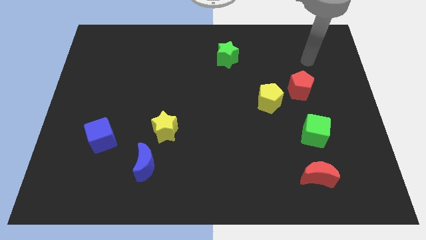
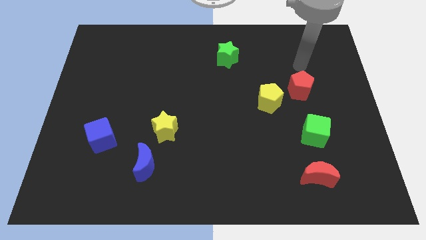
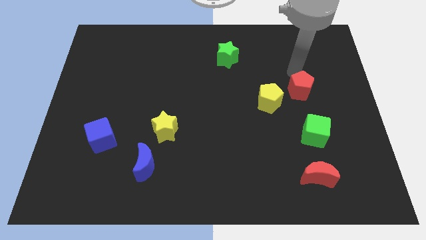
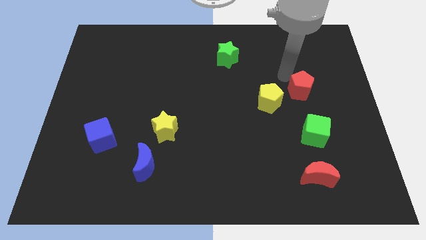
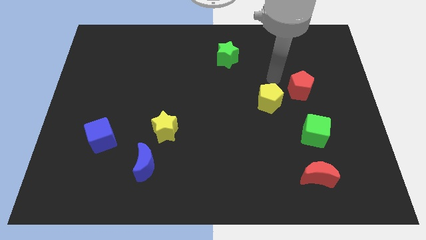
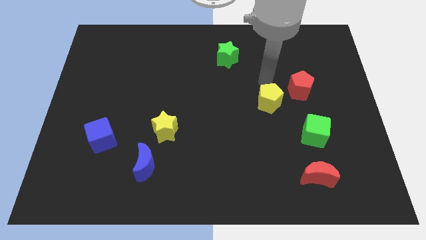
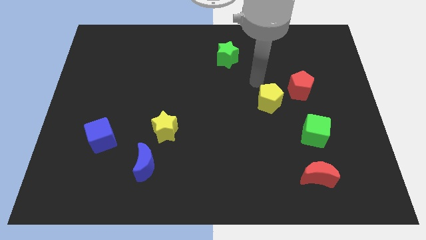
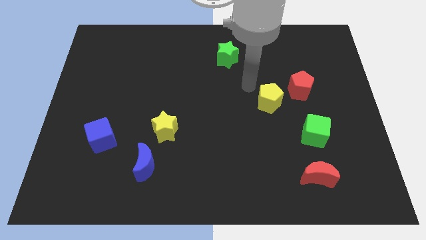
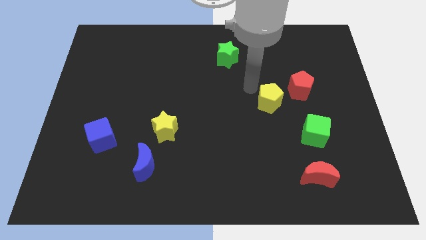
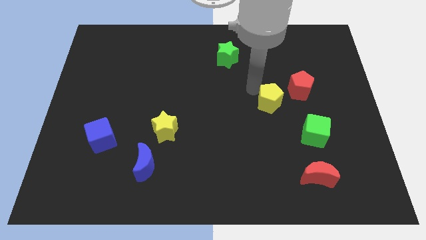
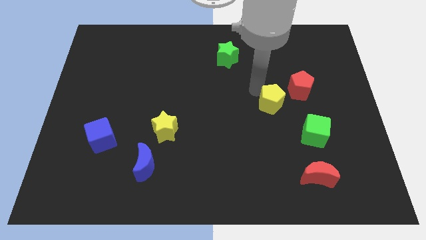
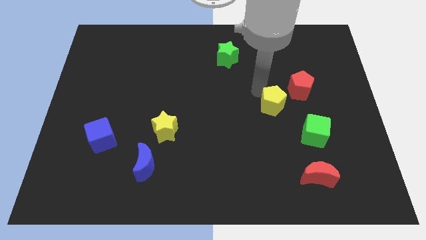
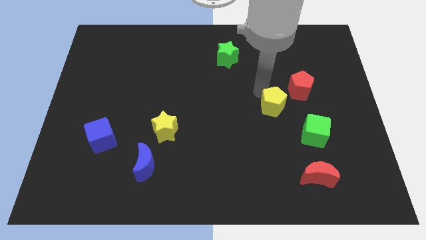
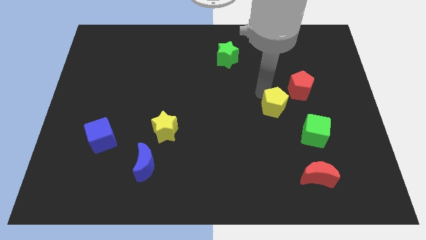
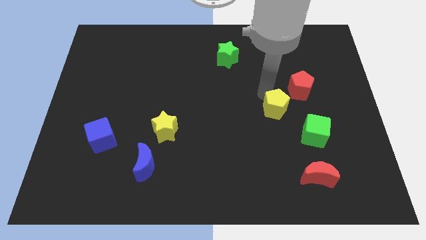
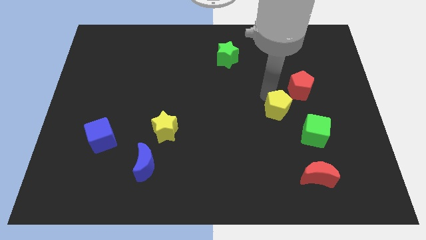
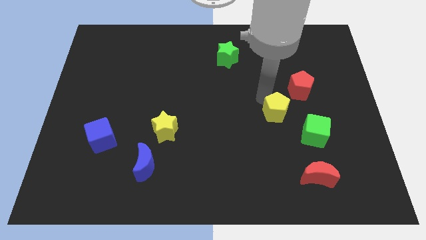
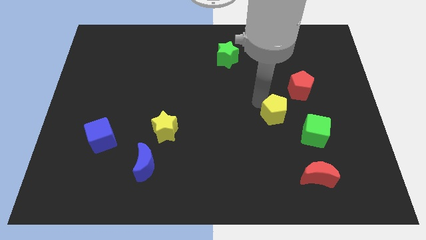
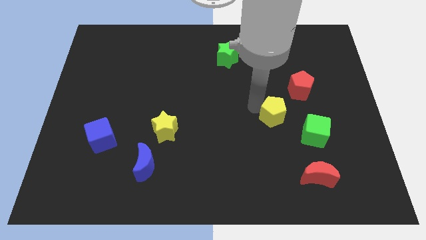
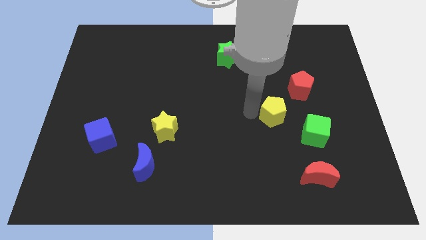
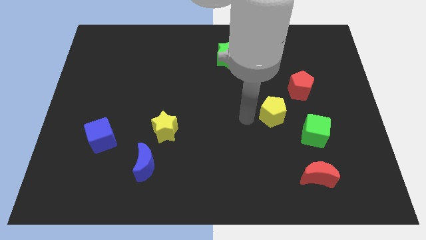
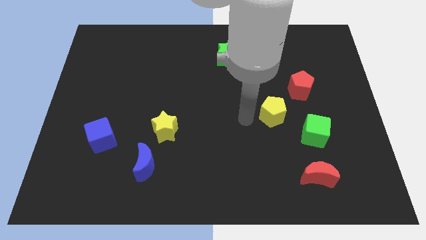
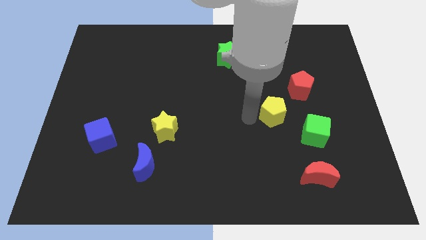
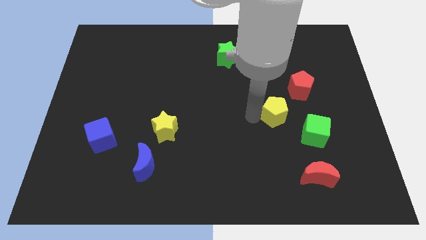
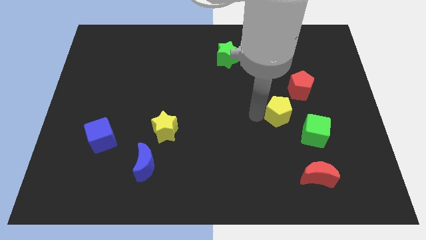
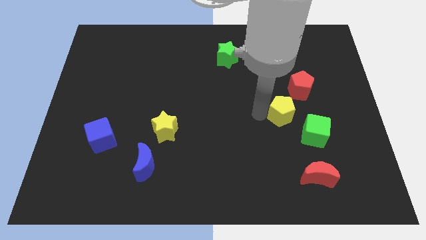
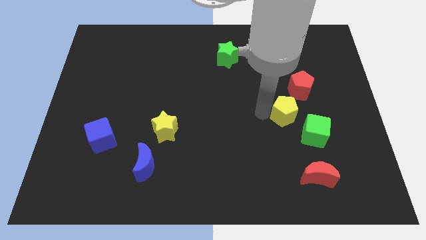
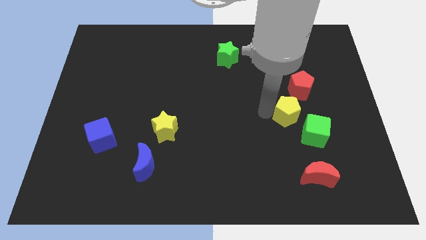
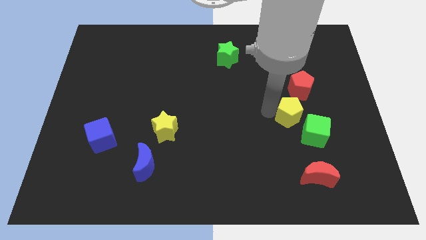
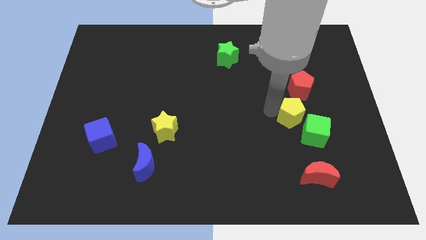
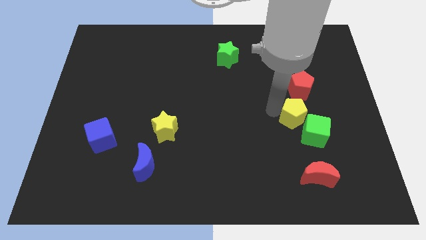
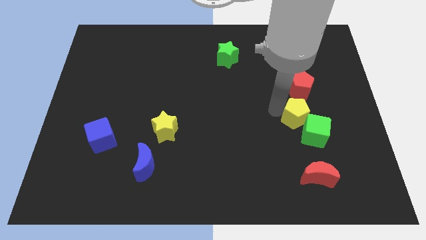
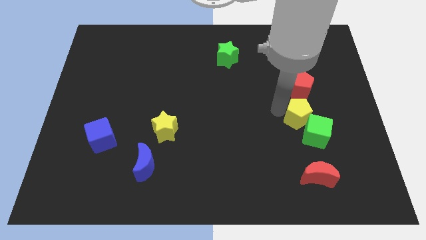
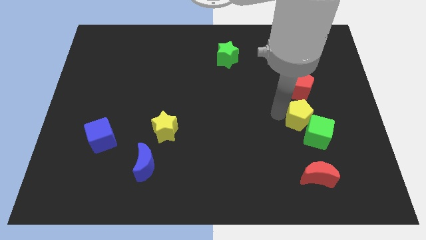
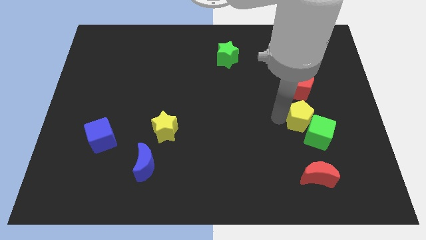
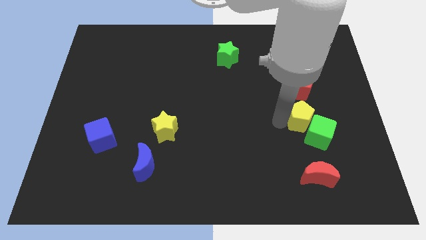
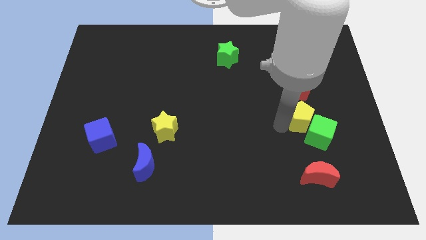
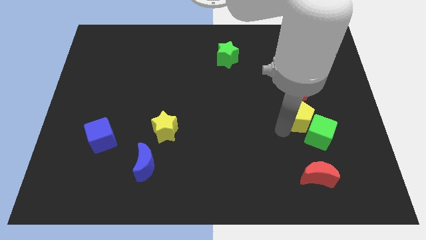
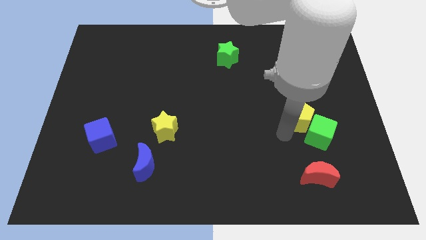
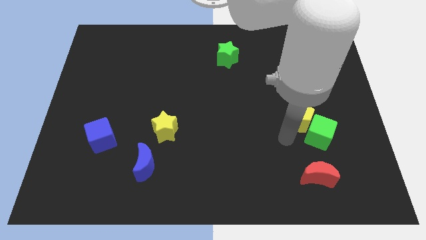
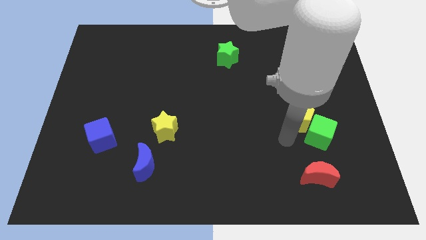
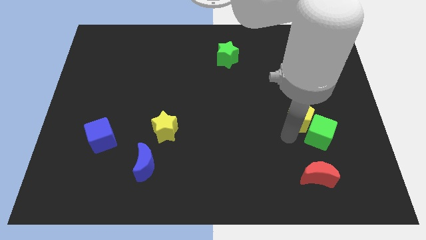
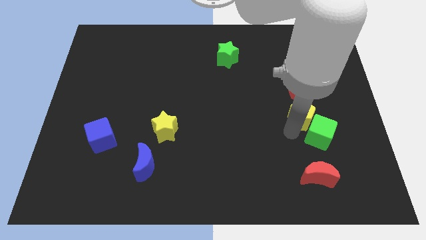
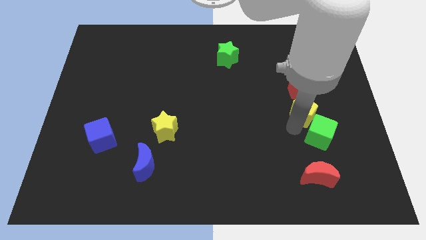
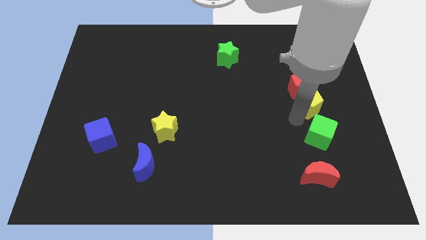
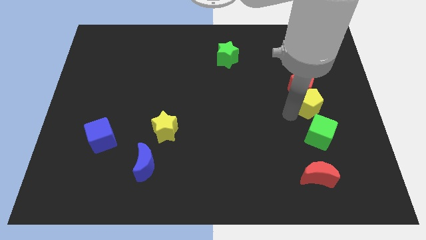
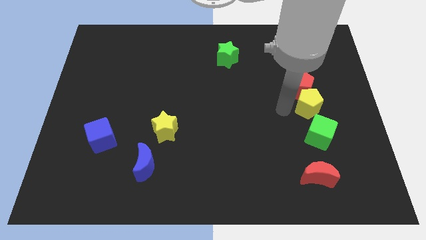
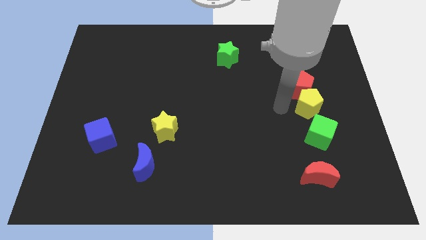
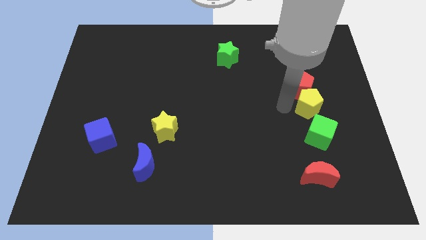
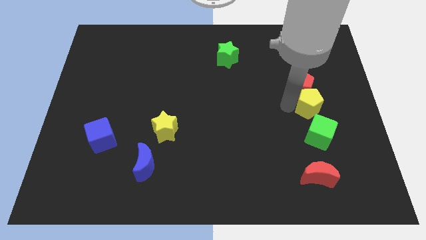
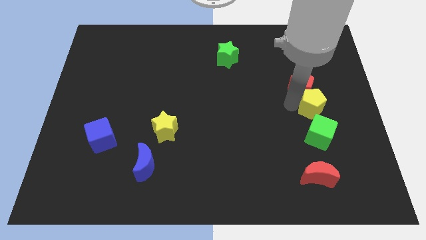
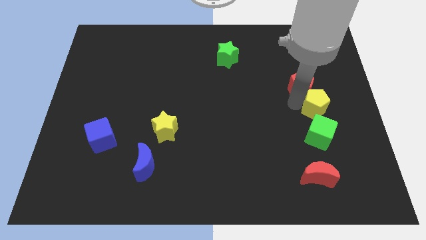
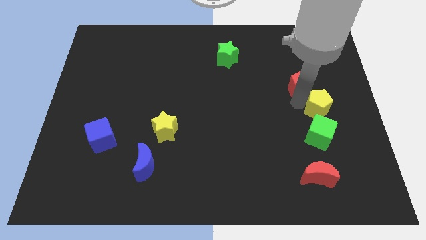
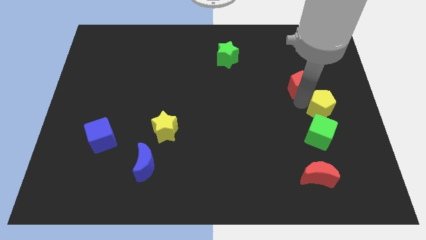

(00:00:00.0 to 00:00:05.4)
slide the yellow pentagon to the center right

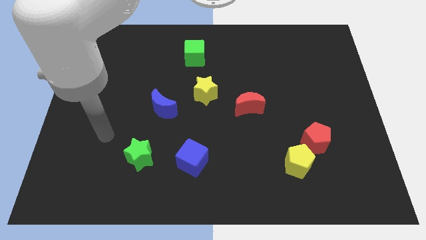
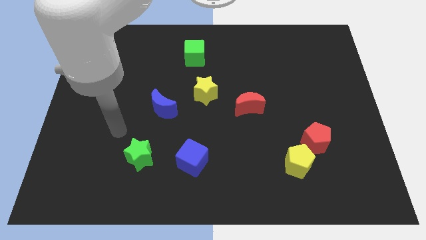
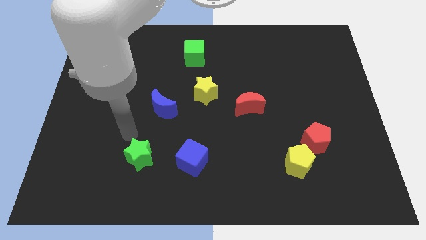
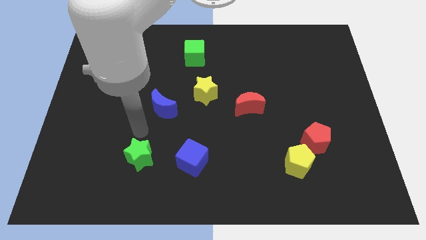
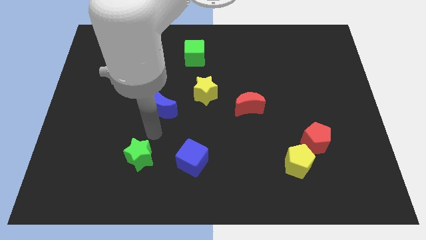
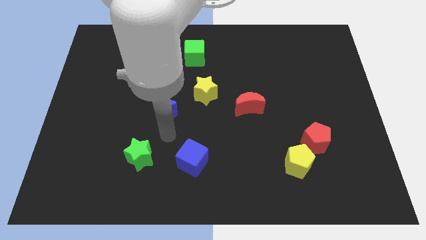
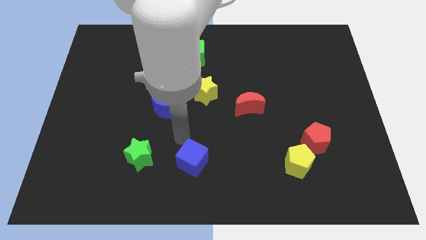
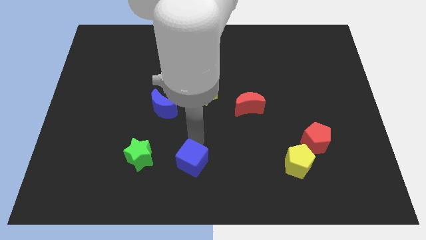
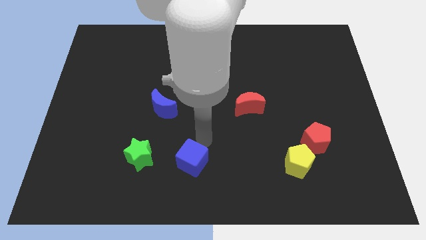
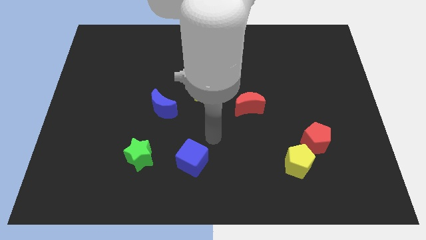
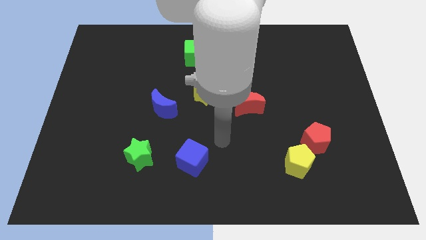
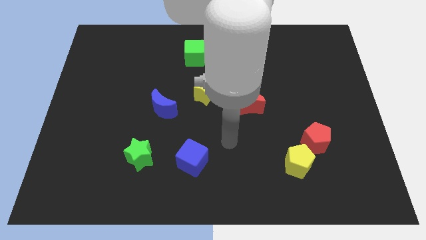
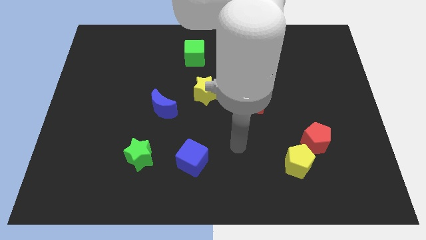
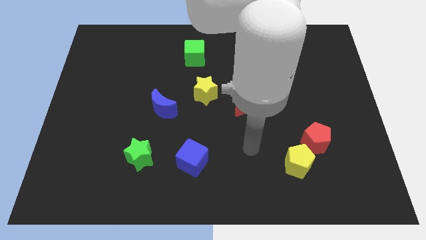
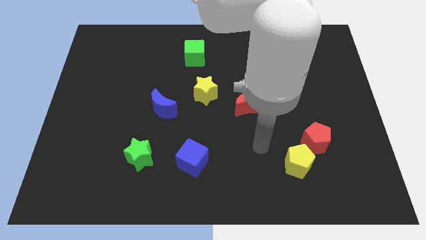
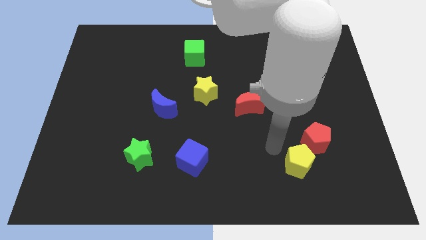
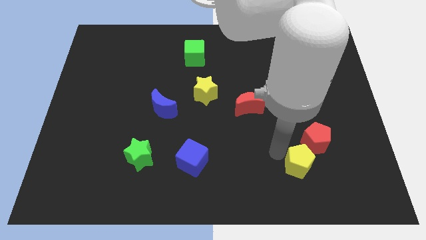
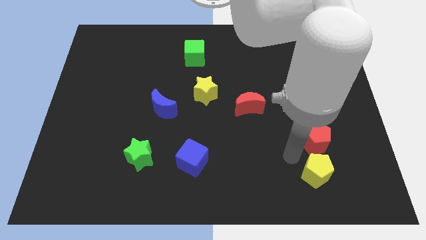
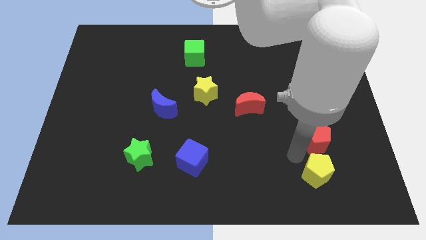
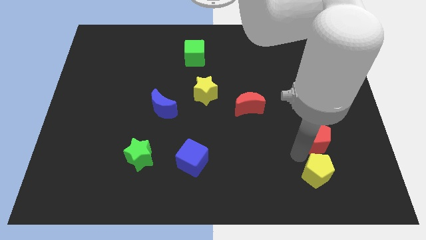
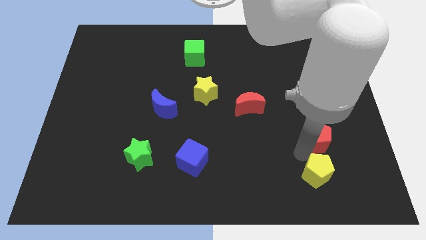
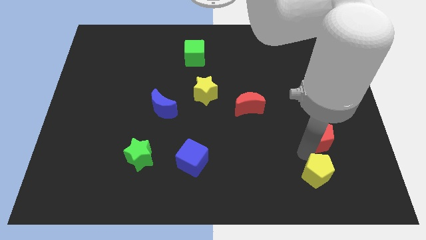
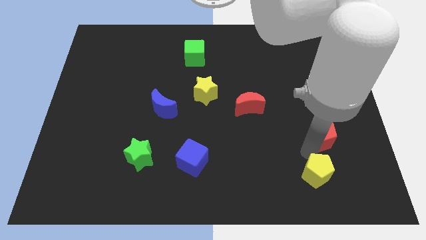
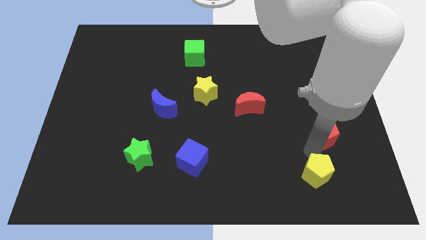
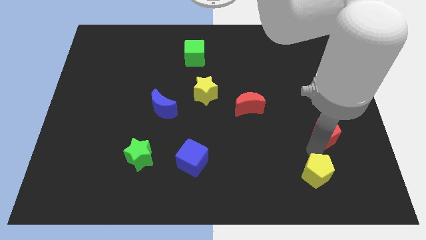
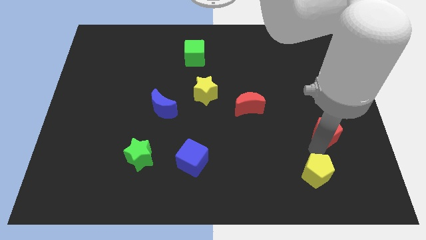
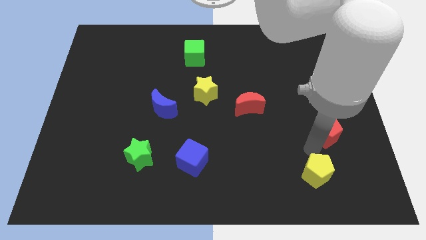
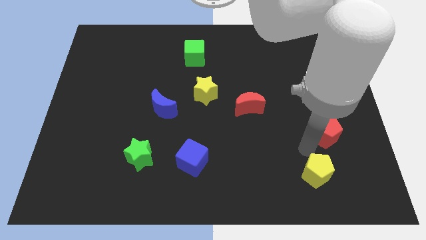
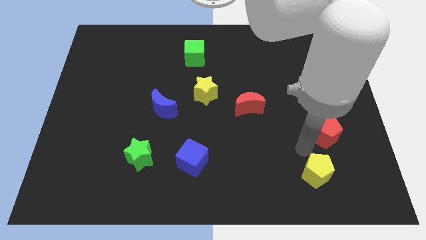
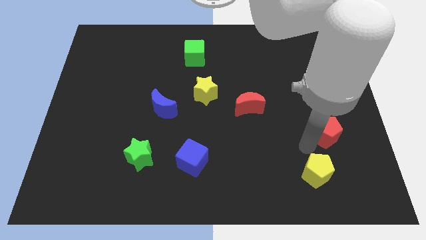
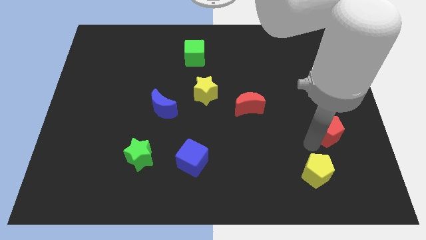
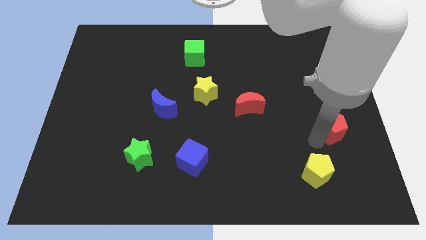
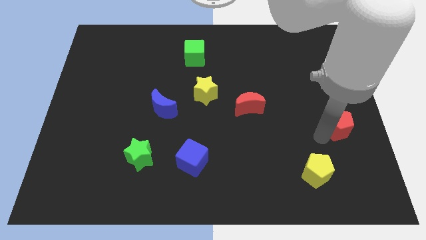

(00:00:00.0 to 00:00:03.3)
push the red pentagon to the right side
